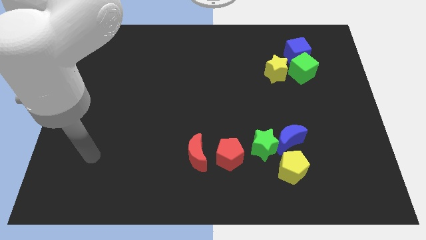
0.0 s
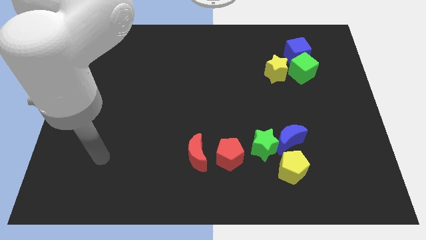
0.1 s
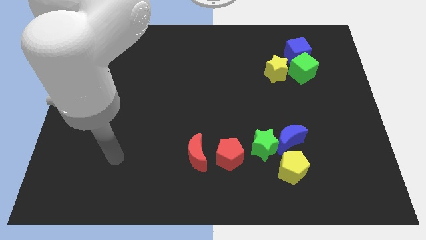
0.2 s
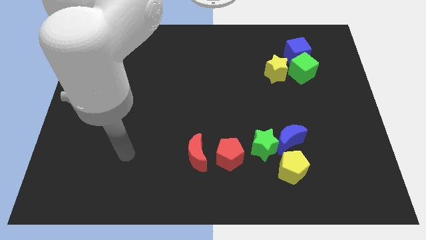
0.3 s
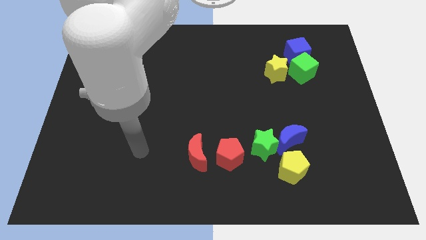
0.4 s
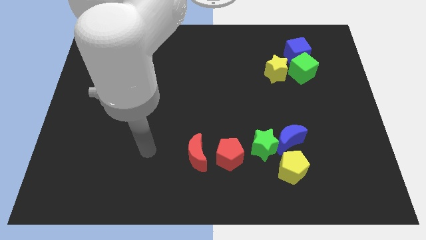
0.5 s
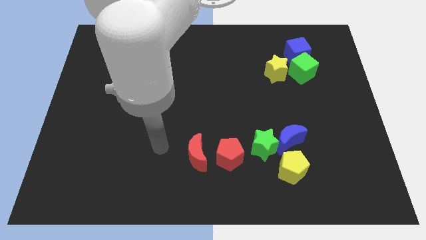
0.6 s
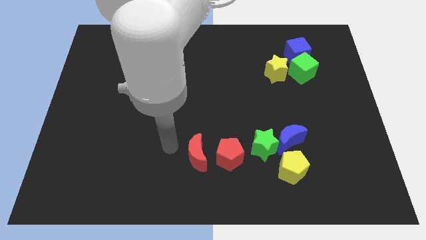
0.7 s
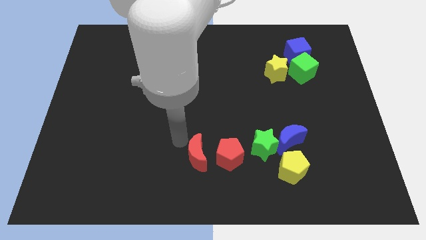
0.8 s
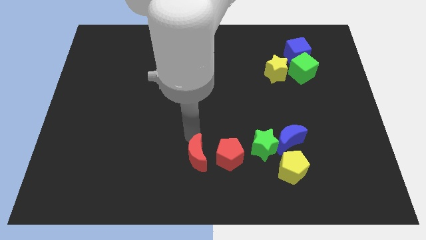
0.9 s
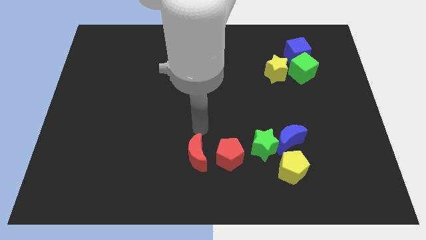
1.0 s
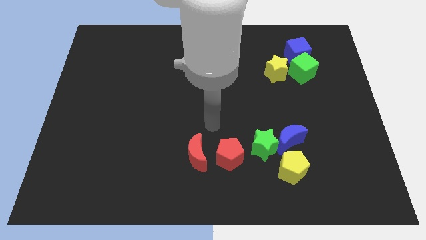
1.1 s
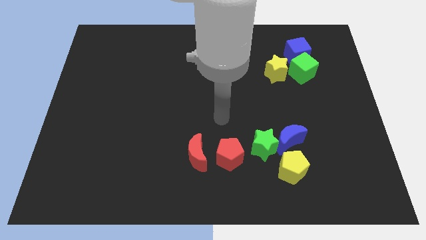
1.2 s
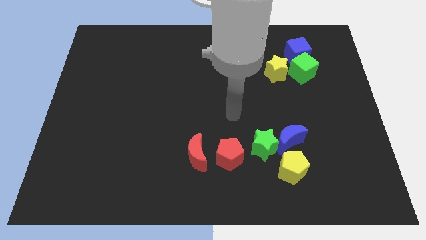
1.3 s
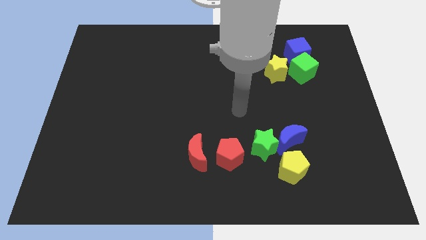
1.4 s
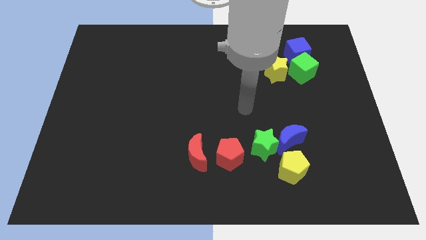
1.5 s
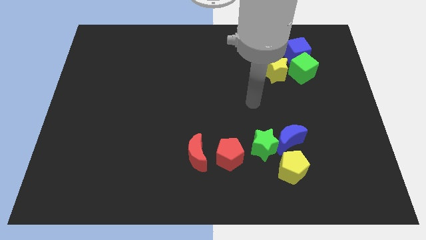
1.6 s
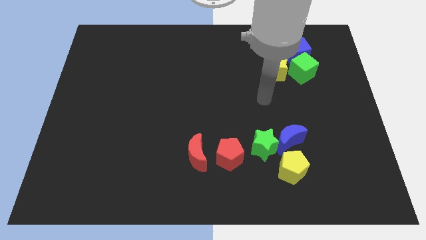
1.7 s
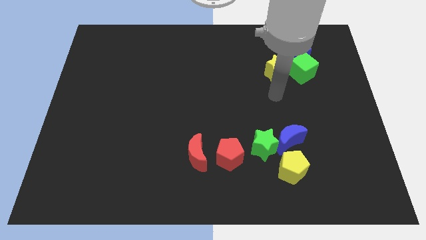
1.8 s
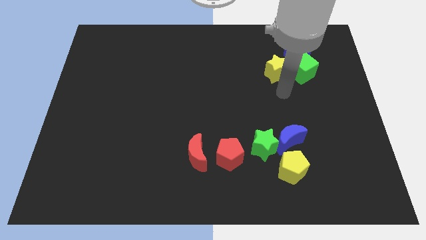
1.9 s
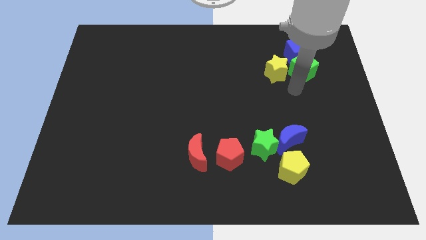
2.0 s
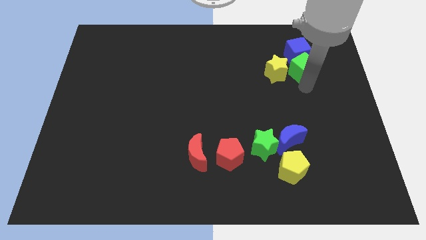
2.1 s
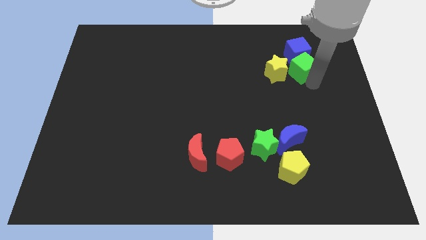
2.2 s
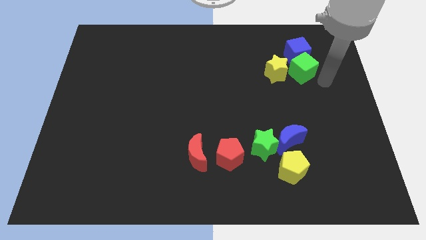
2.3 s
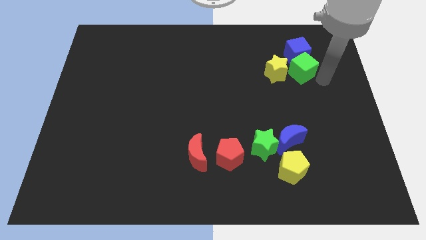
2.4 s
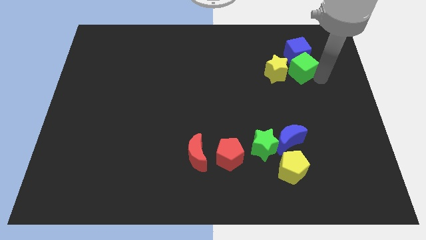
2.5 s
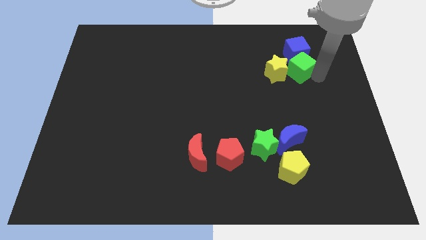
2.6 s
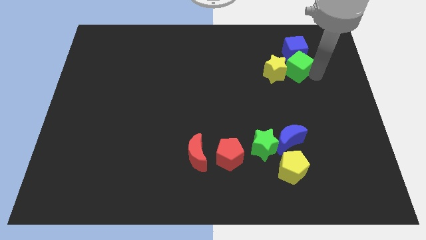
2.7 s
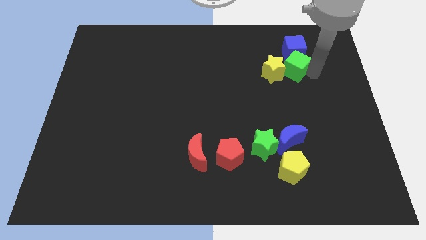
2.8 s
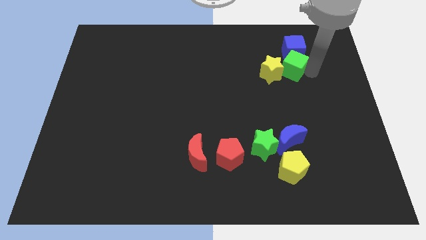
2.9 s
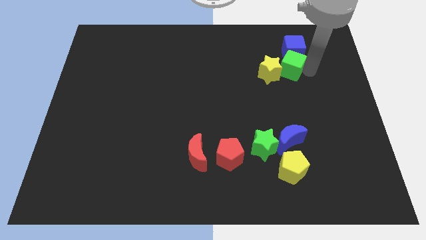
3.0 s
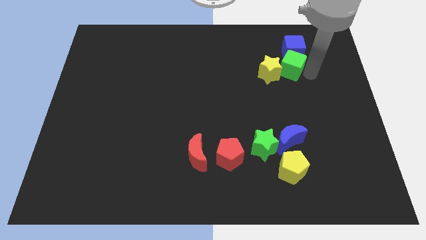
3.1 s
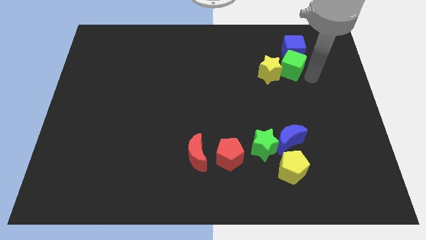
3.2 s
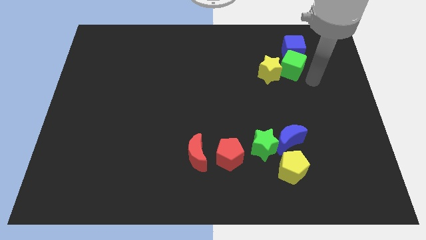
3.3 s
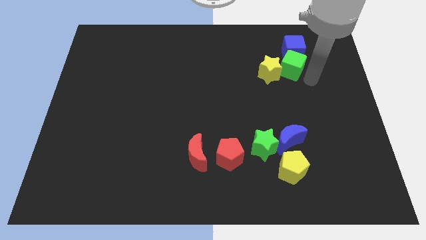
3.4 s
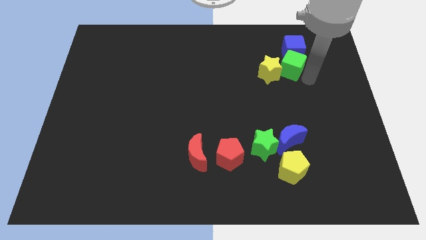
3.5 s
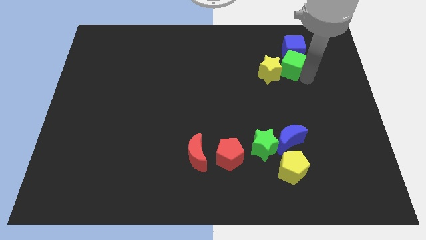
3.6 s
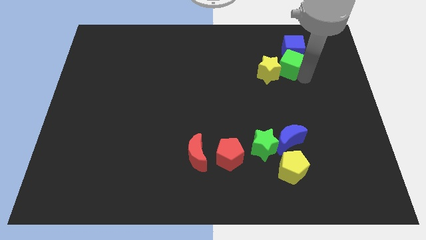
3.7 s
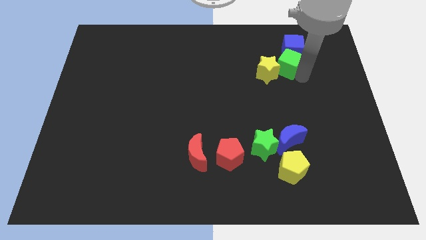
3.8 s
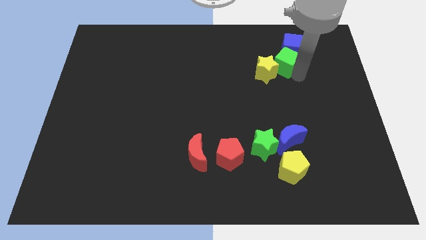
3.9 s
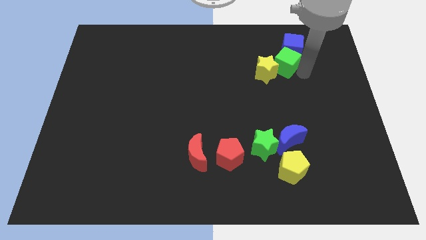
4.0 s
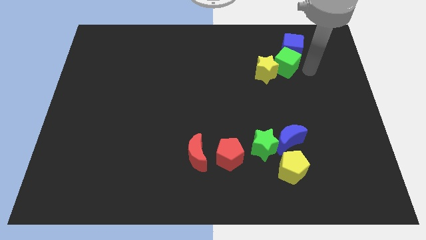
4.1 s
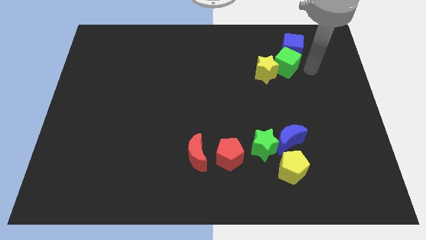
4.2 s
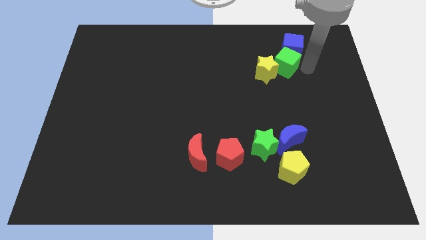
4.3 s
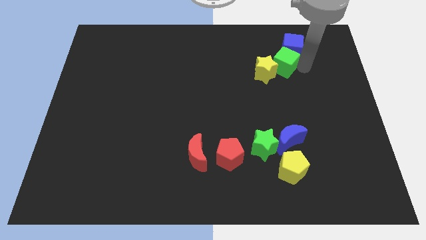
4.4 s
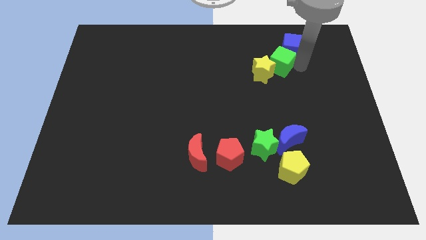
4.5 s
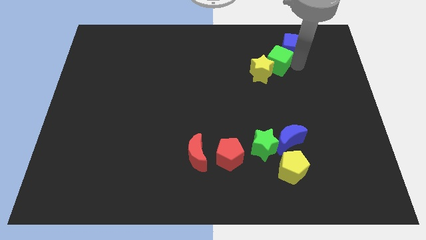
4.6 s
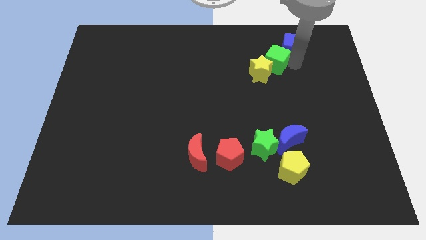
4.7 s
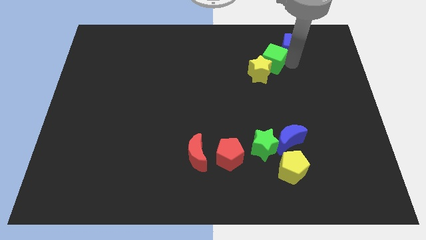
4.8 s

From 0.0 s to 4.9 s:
push the green cube a bit left

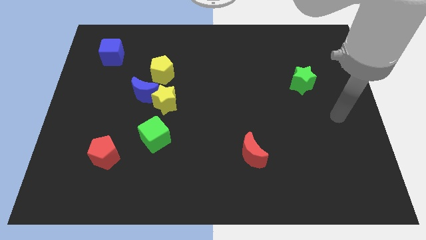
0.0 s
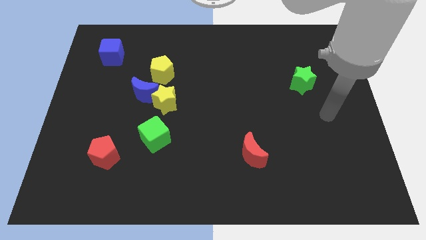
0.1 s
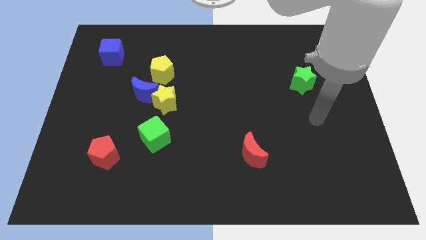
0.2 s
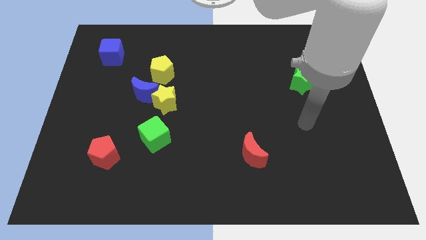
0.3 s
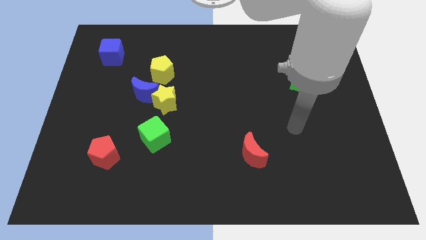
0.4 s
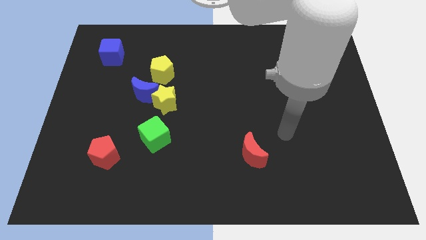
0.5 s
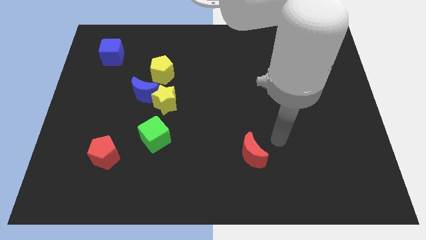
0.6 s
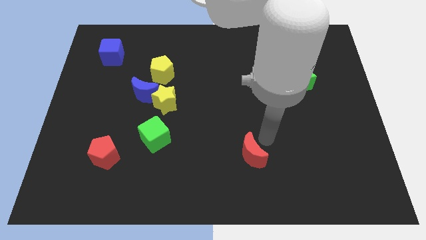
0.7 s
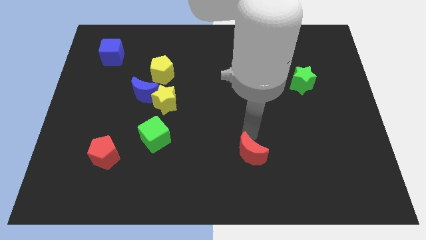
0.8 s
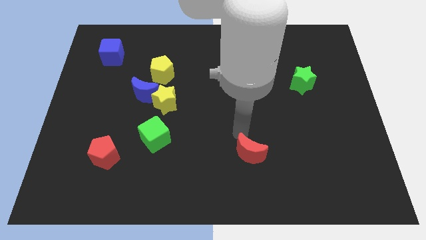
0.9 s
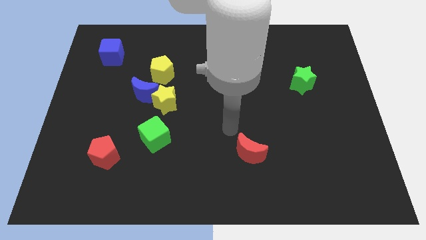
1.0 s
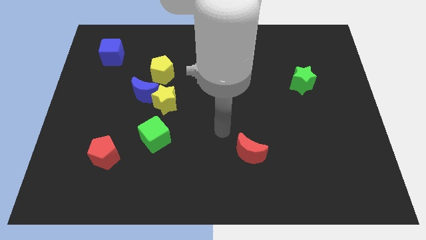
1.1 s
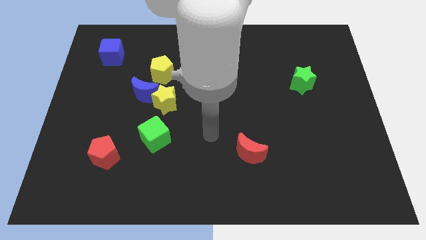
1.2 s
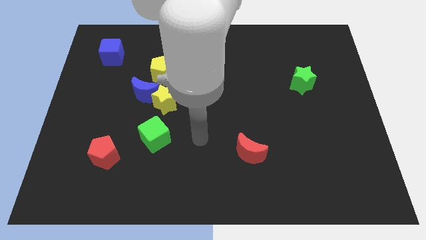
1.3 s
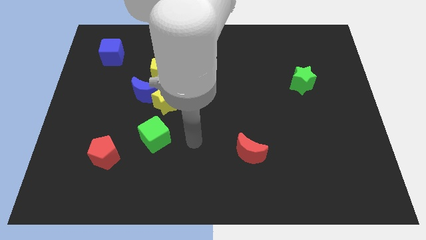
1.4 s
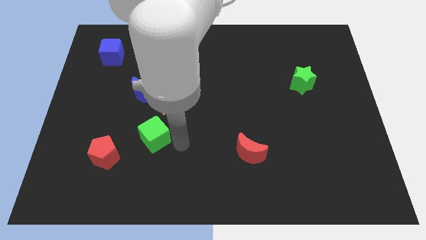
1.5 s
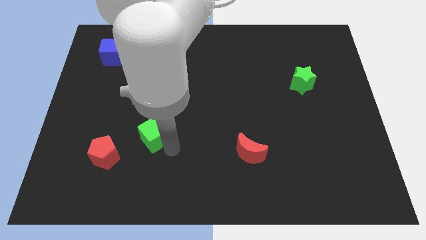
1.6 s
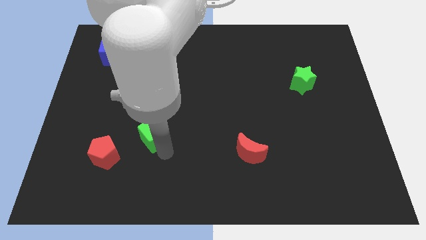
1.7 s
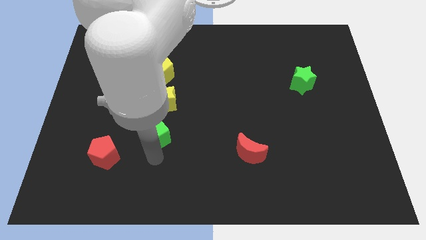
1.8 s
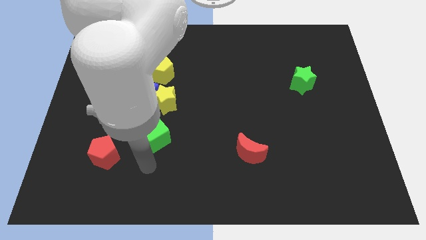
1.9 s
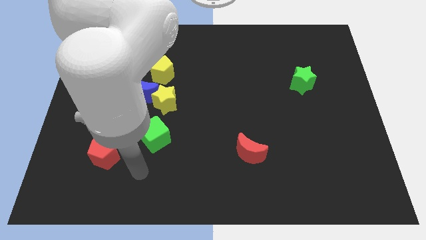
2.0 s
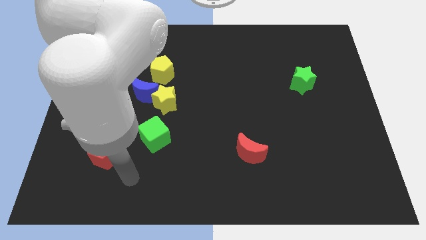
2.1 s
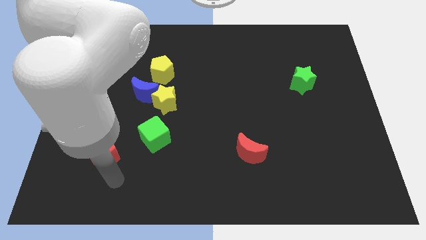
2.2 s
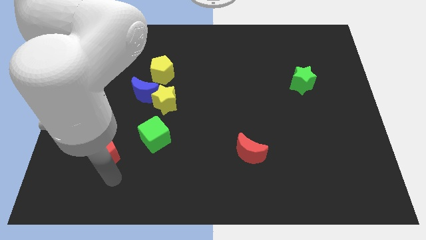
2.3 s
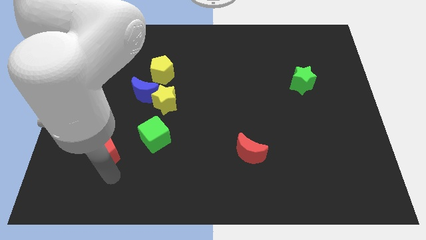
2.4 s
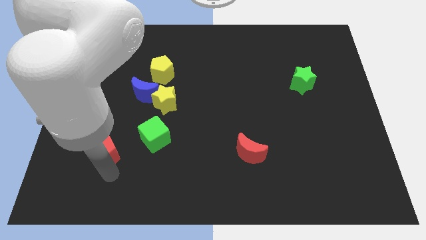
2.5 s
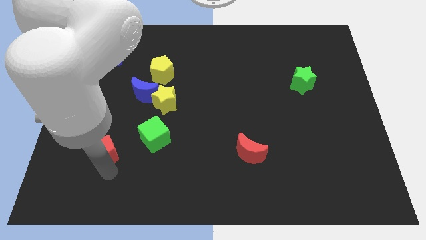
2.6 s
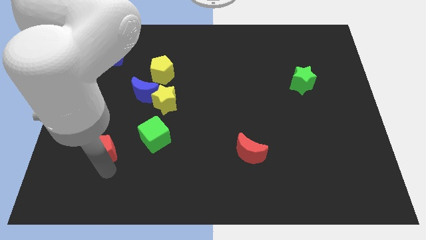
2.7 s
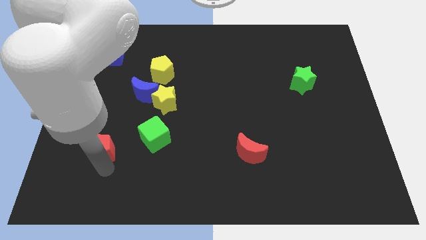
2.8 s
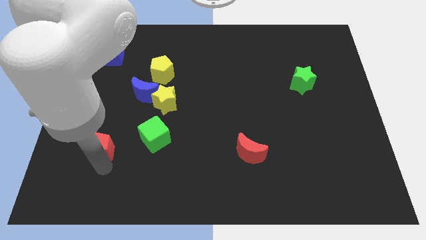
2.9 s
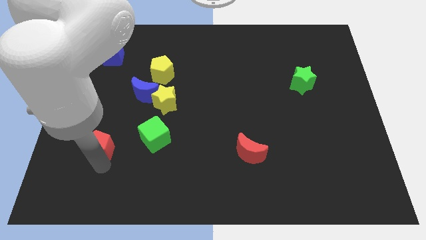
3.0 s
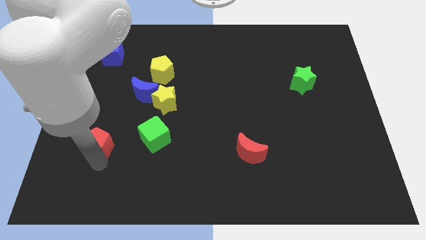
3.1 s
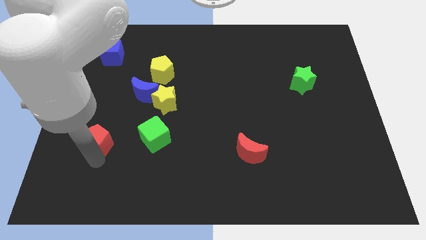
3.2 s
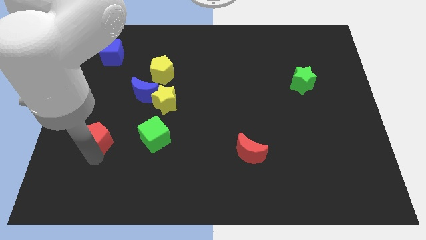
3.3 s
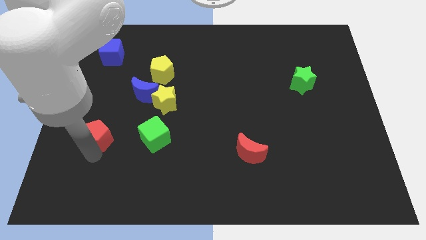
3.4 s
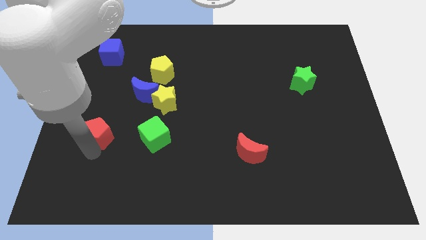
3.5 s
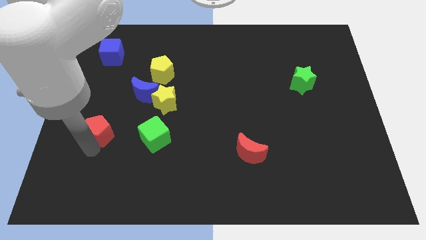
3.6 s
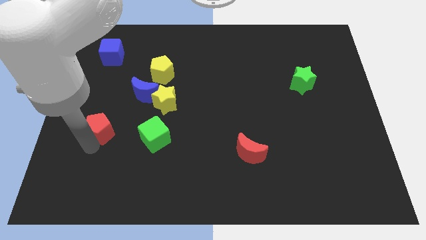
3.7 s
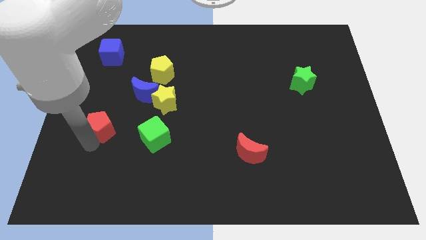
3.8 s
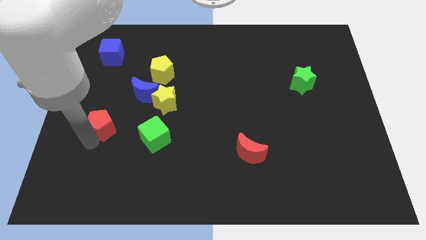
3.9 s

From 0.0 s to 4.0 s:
slightly slide the red pentagon up
